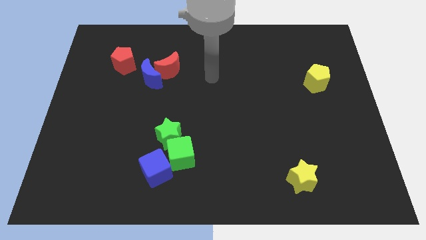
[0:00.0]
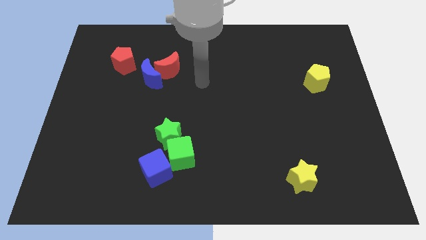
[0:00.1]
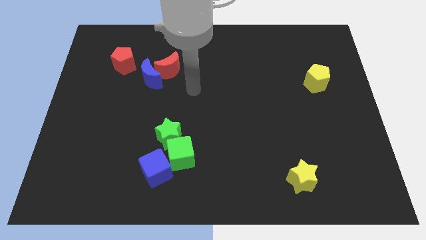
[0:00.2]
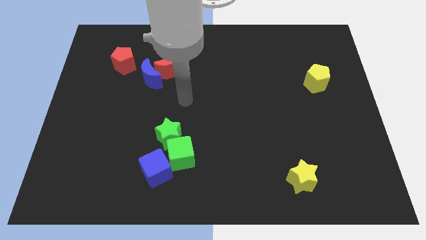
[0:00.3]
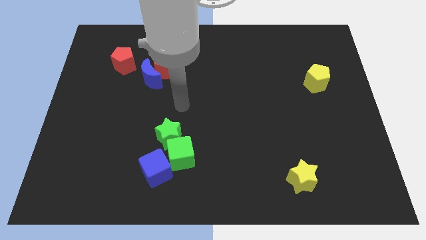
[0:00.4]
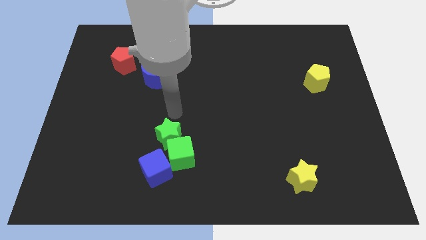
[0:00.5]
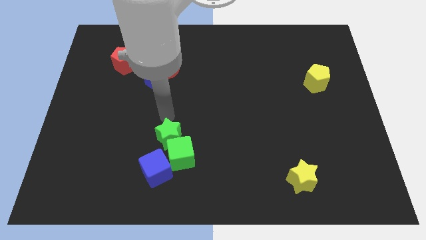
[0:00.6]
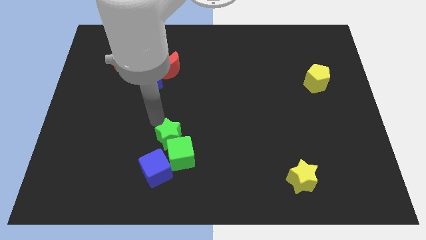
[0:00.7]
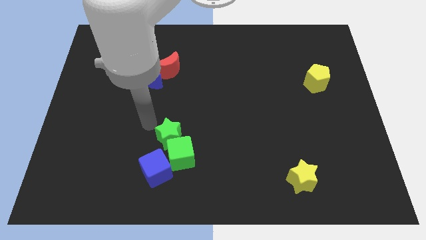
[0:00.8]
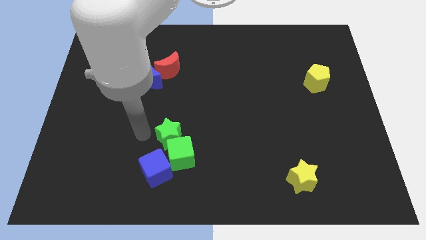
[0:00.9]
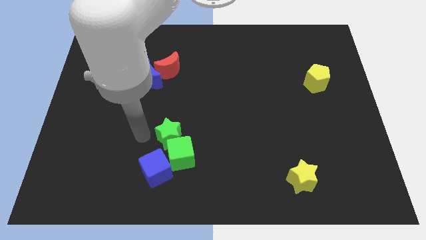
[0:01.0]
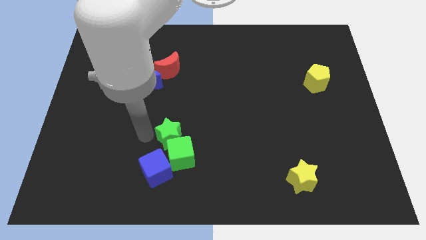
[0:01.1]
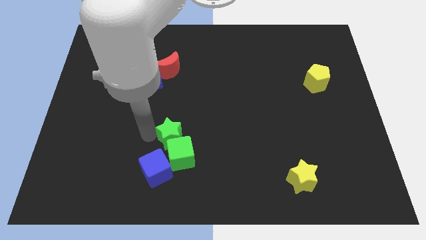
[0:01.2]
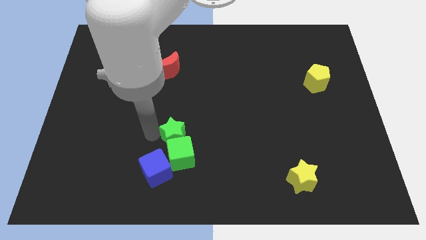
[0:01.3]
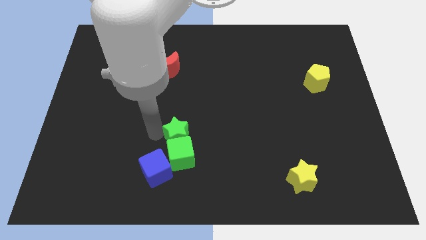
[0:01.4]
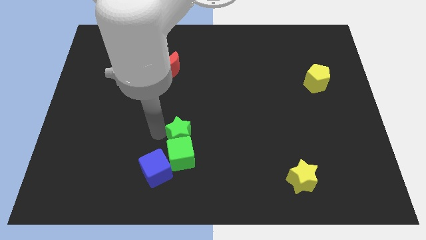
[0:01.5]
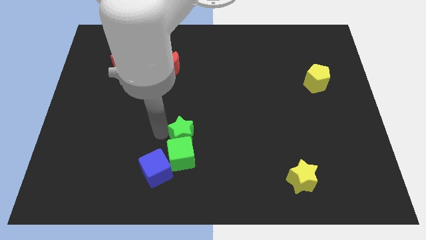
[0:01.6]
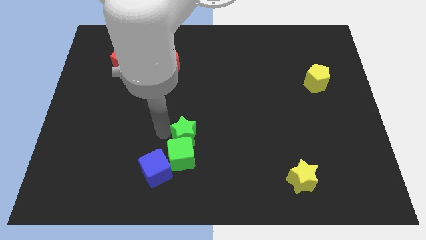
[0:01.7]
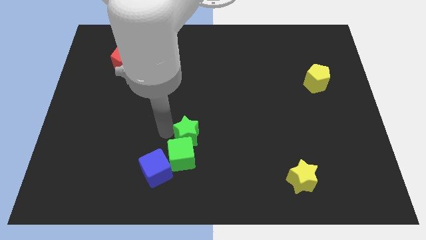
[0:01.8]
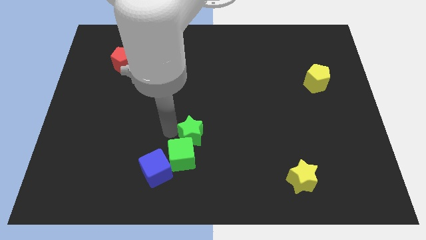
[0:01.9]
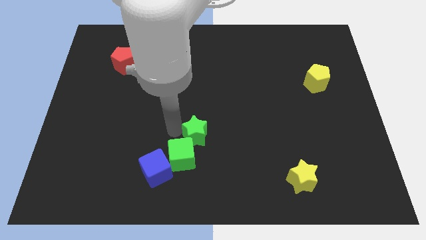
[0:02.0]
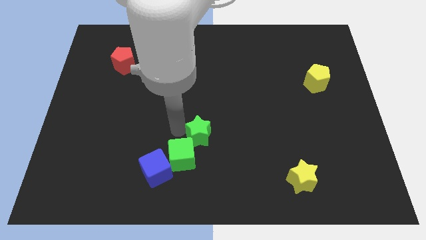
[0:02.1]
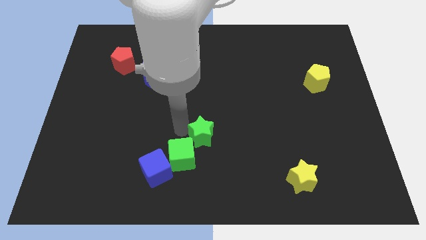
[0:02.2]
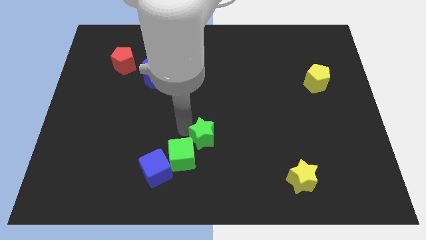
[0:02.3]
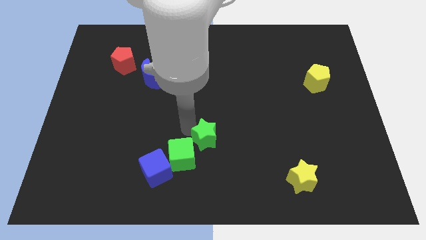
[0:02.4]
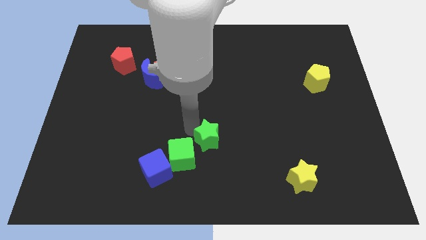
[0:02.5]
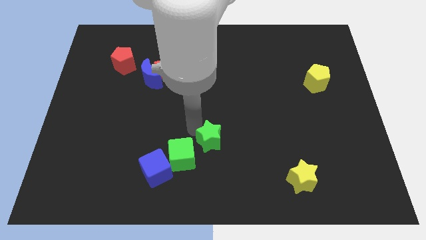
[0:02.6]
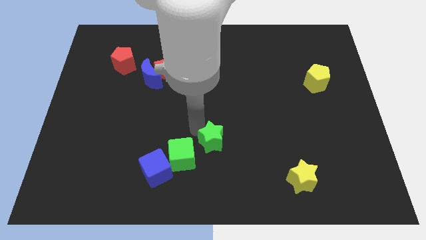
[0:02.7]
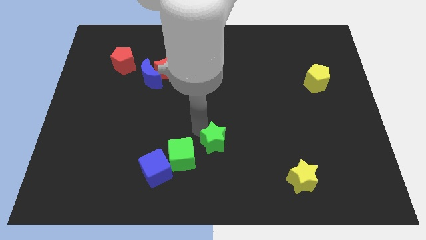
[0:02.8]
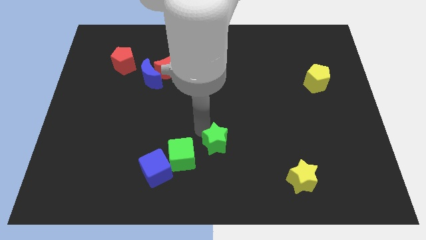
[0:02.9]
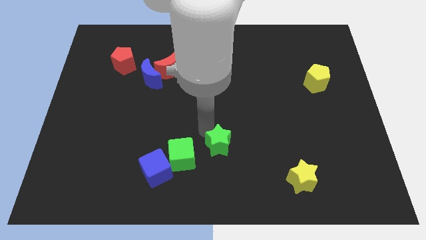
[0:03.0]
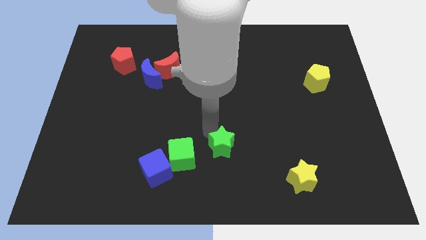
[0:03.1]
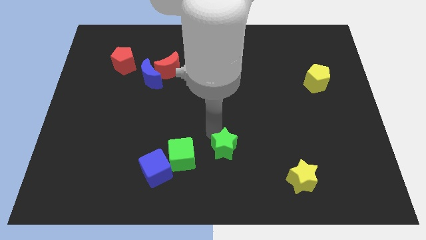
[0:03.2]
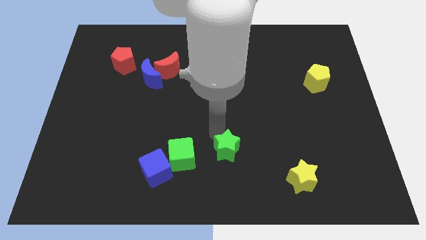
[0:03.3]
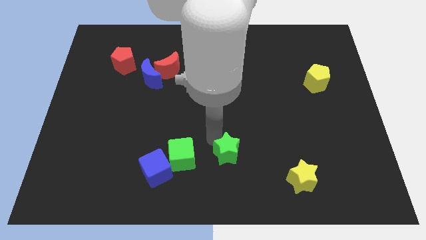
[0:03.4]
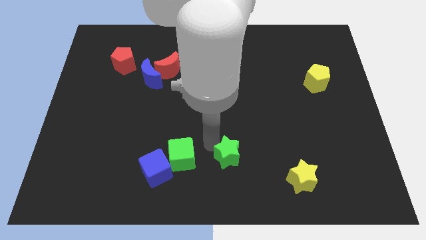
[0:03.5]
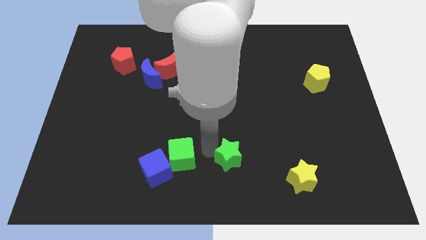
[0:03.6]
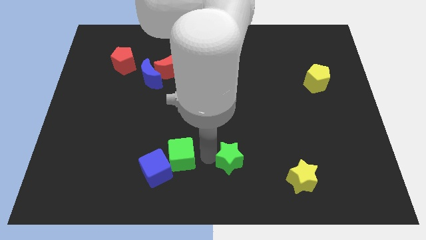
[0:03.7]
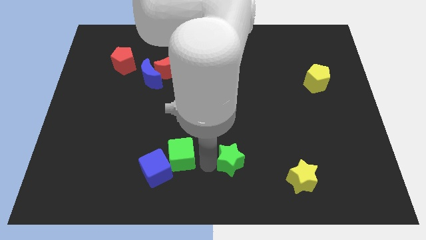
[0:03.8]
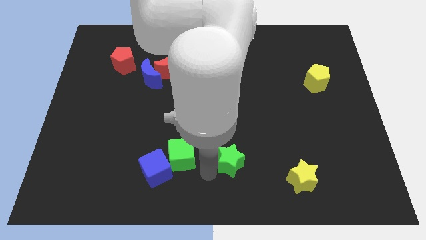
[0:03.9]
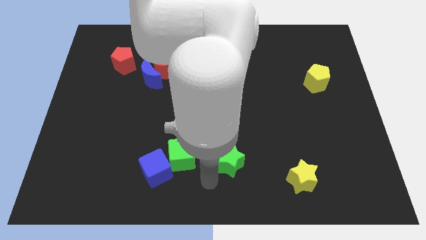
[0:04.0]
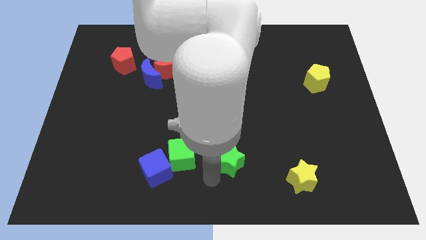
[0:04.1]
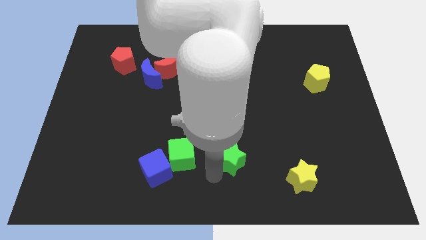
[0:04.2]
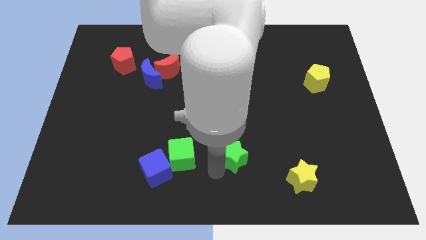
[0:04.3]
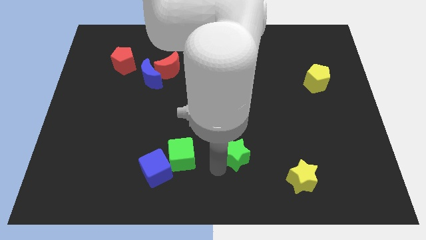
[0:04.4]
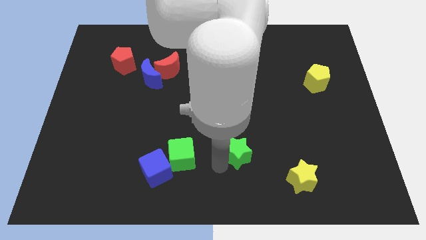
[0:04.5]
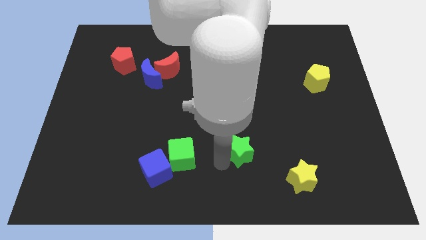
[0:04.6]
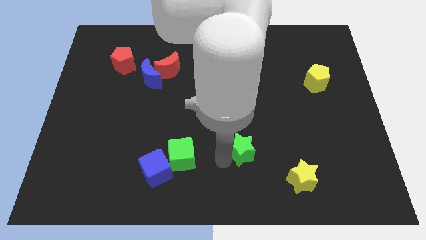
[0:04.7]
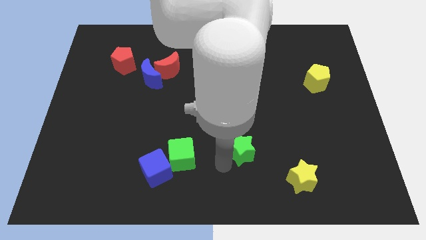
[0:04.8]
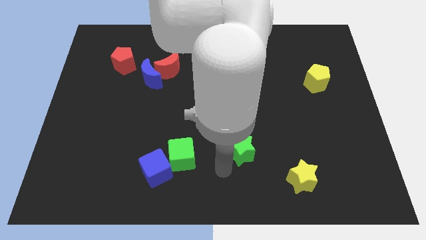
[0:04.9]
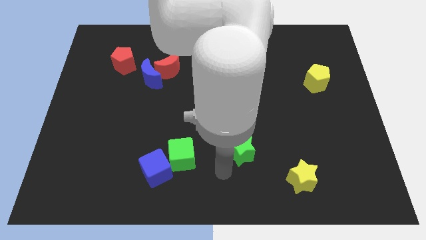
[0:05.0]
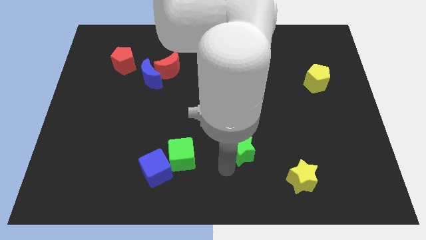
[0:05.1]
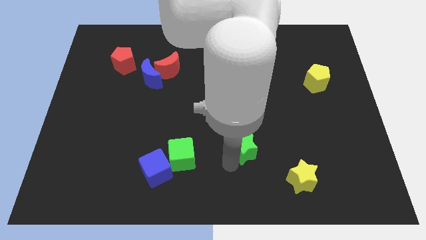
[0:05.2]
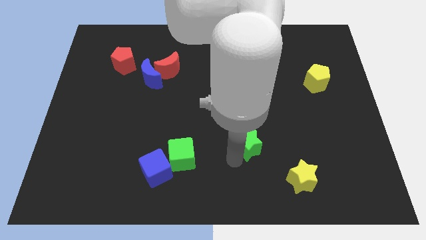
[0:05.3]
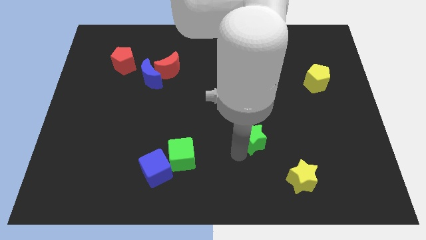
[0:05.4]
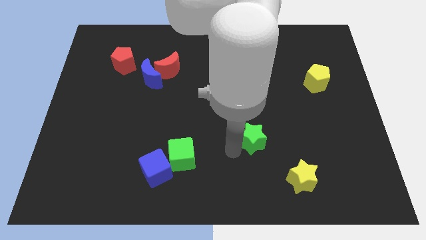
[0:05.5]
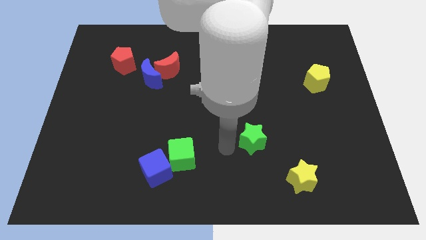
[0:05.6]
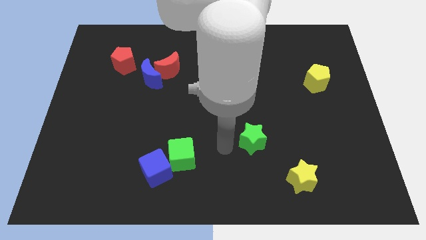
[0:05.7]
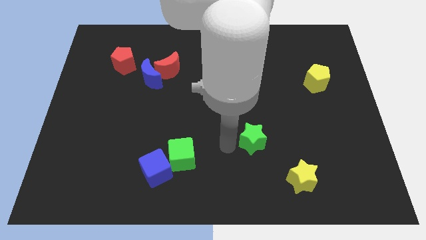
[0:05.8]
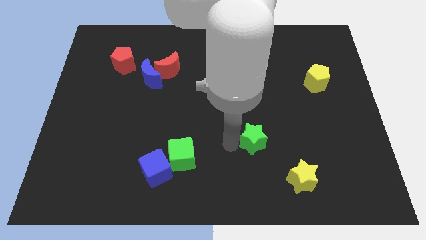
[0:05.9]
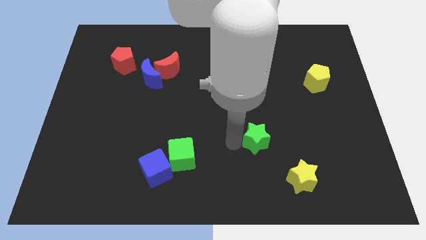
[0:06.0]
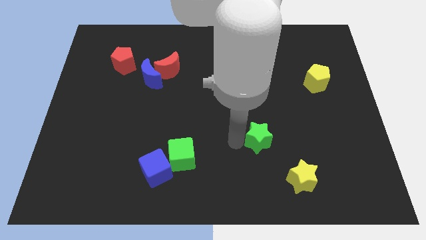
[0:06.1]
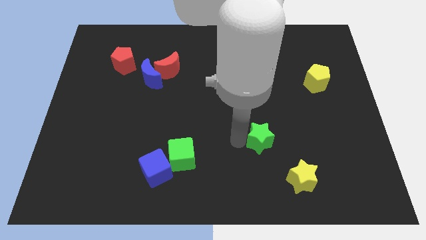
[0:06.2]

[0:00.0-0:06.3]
slide the green star to the right

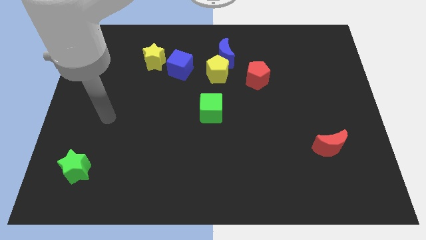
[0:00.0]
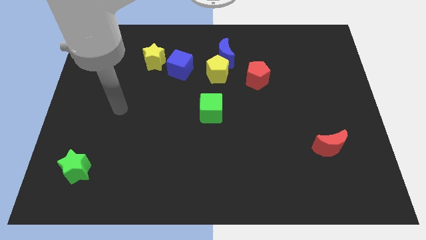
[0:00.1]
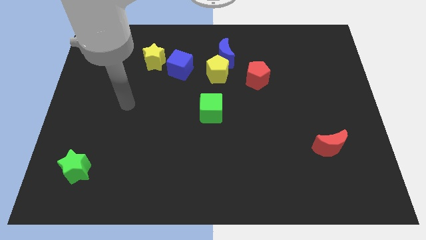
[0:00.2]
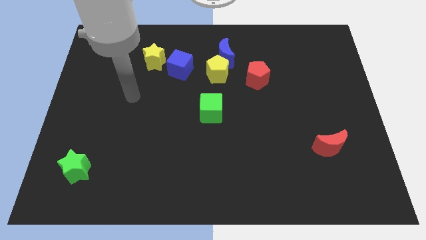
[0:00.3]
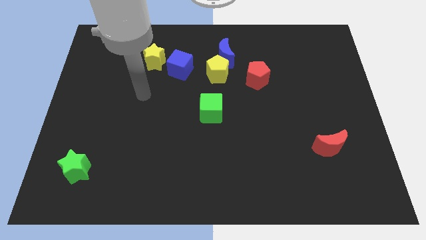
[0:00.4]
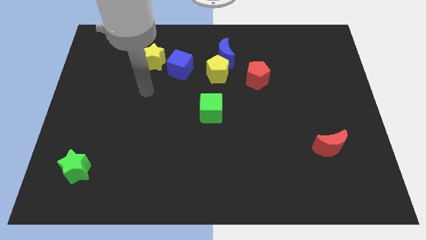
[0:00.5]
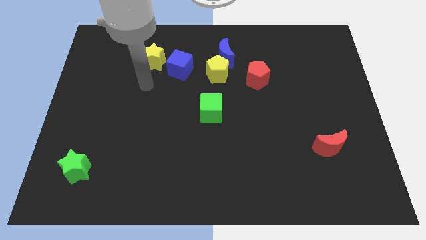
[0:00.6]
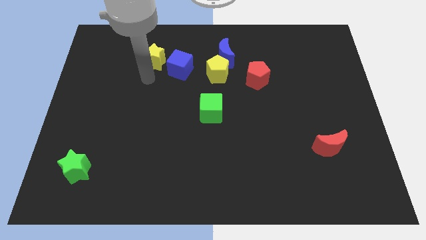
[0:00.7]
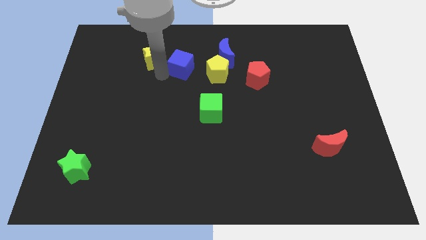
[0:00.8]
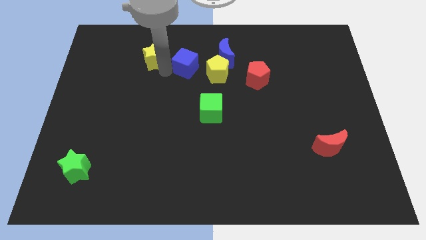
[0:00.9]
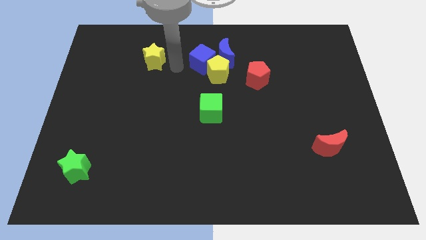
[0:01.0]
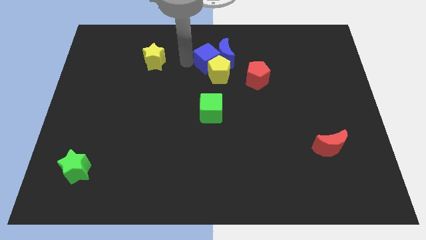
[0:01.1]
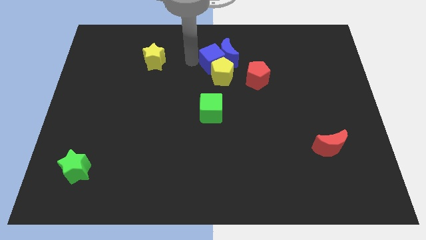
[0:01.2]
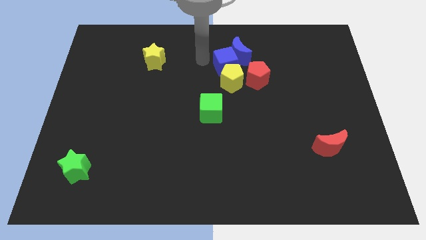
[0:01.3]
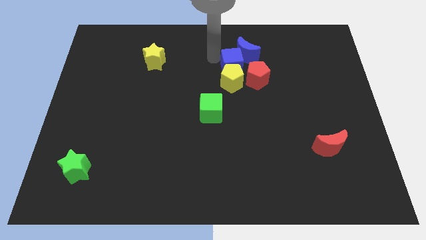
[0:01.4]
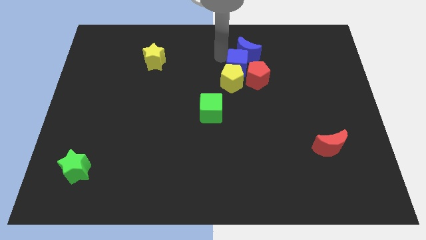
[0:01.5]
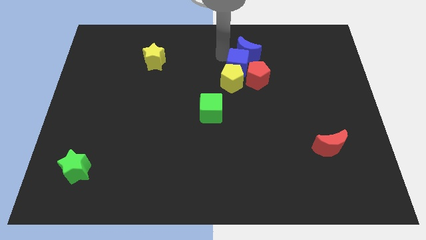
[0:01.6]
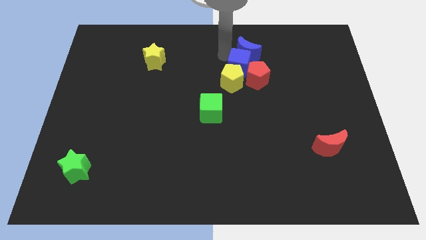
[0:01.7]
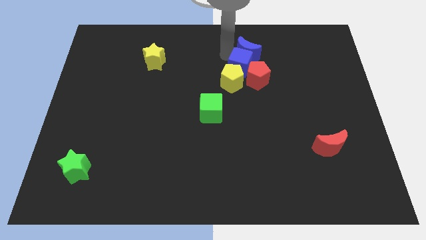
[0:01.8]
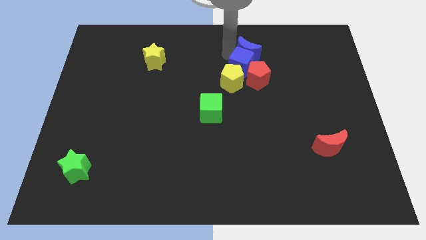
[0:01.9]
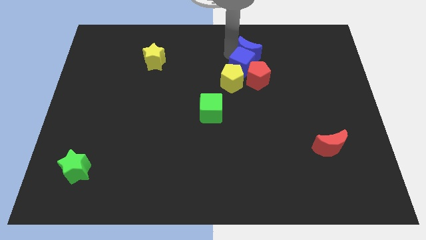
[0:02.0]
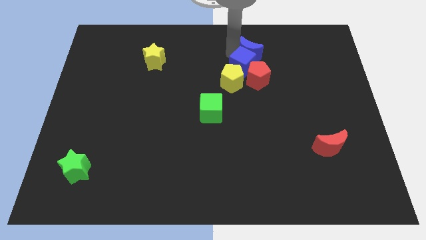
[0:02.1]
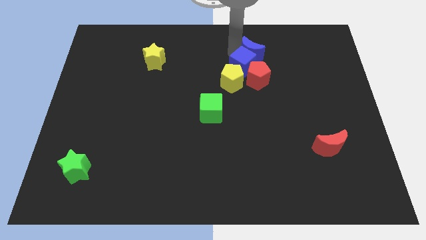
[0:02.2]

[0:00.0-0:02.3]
push the blue moon a little bit right
